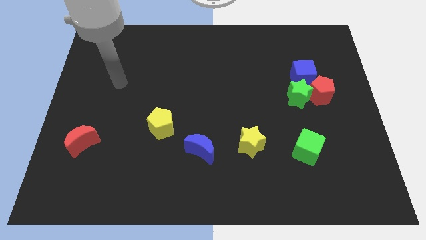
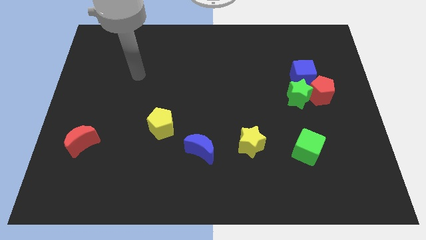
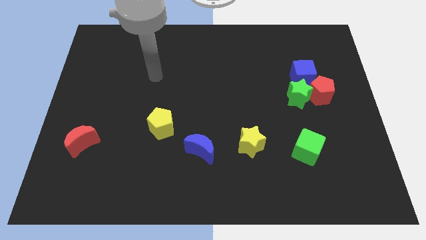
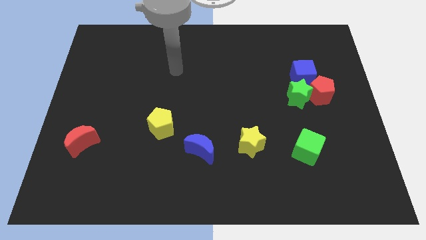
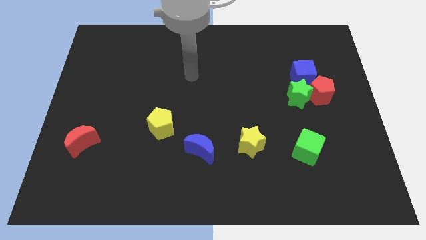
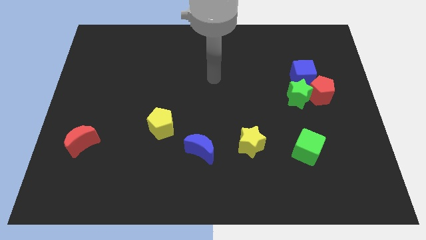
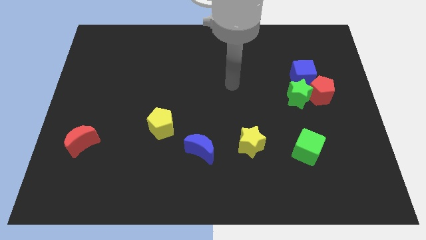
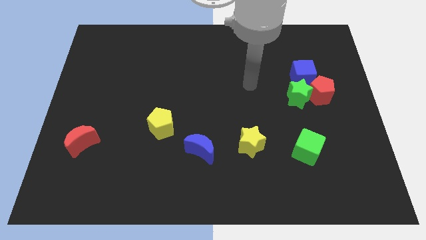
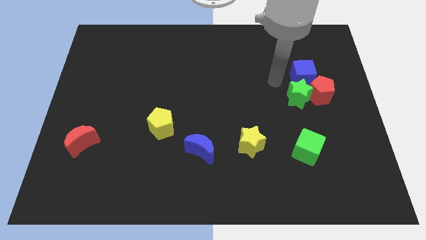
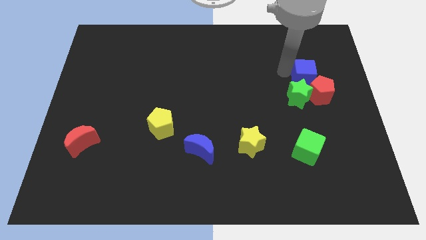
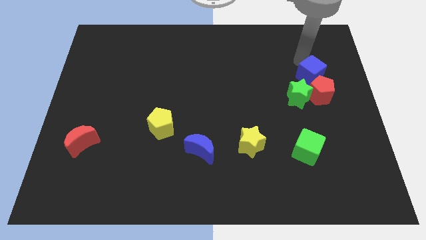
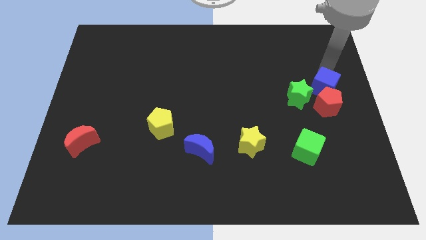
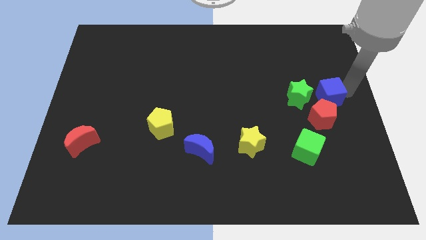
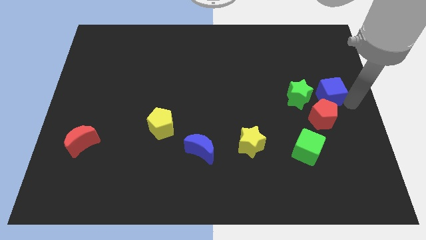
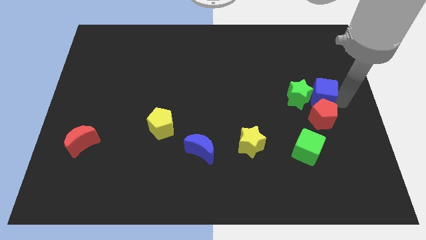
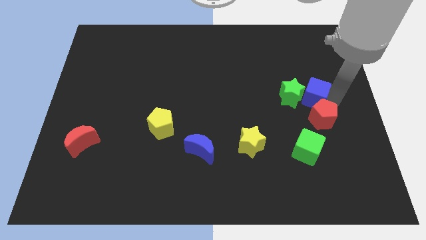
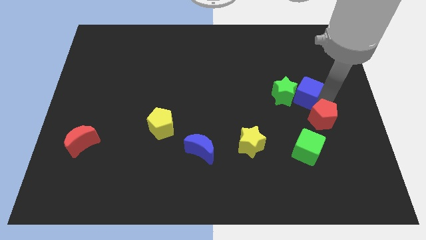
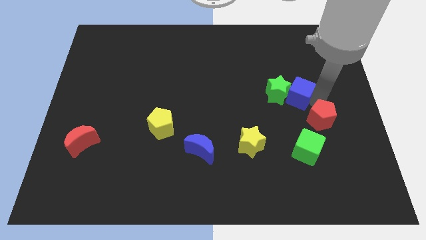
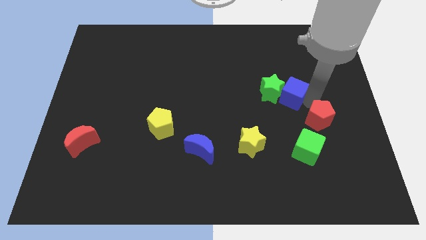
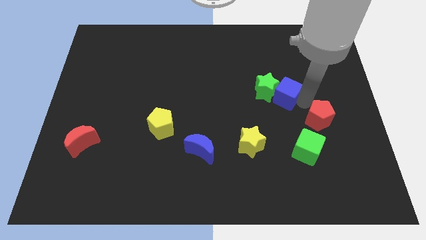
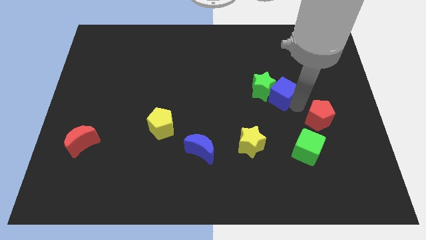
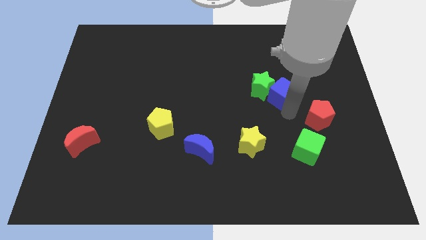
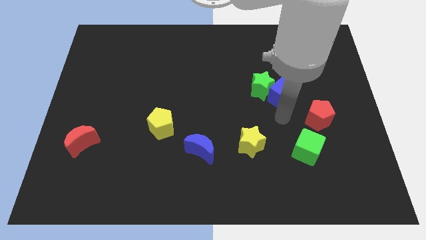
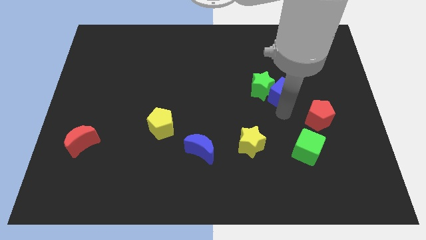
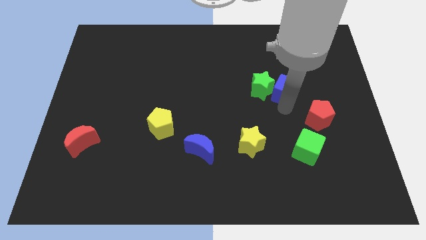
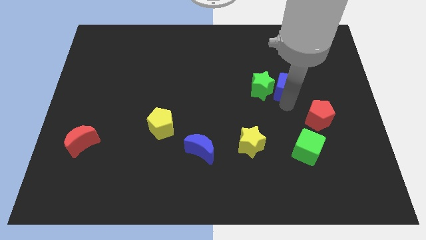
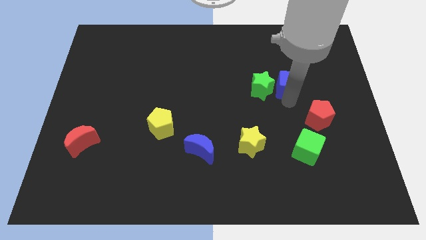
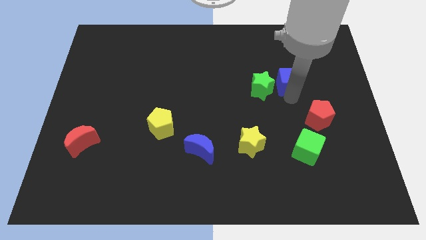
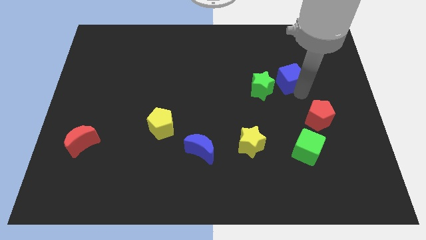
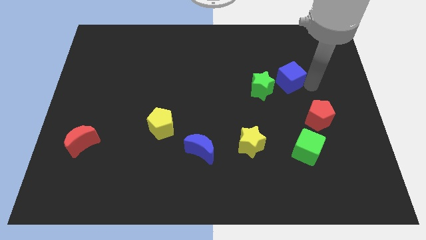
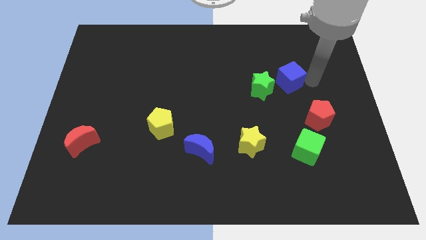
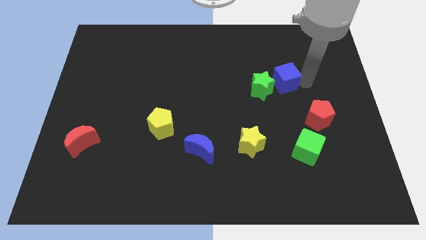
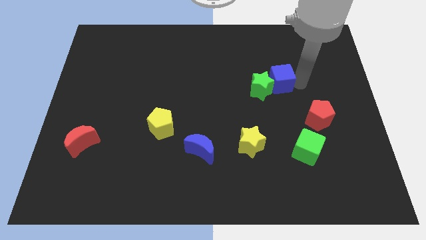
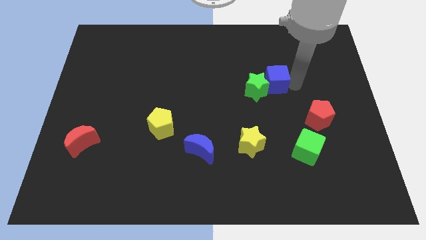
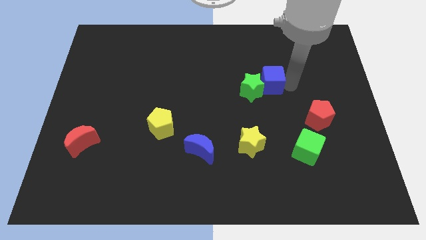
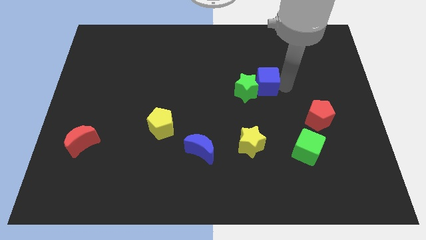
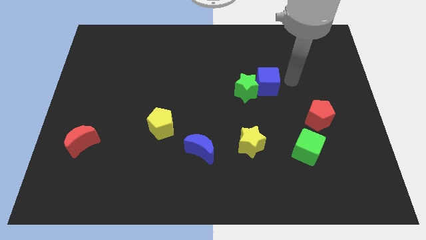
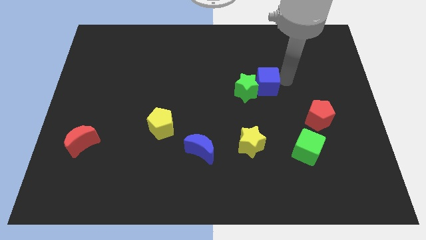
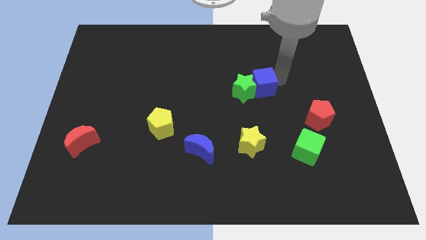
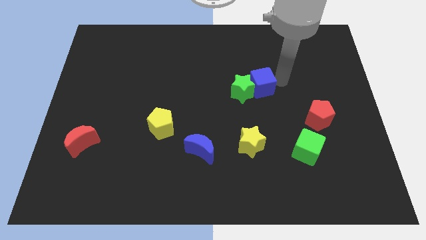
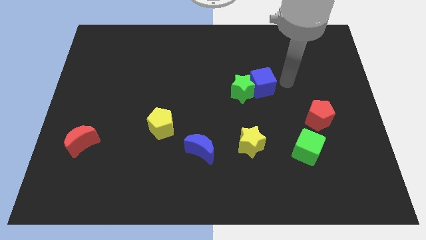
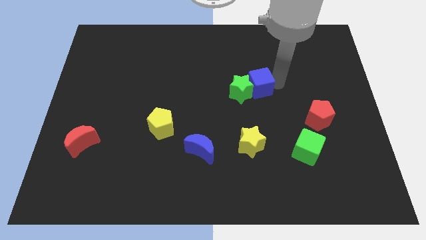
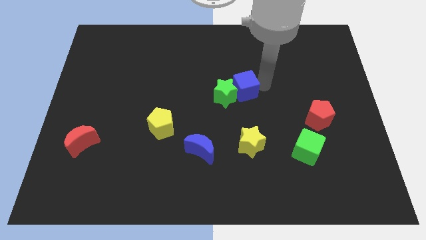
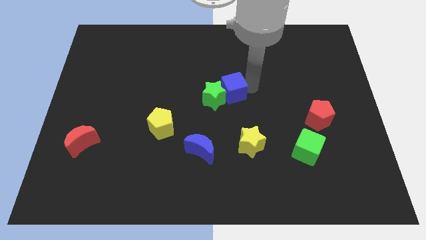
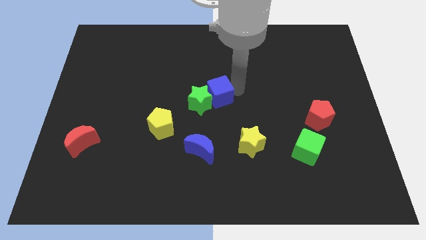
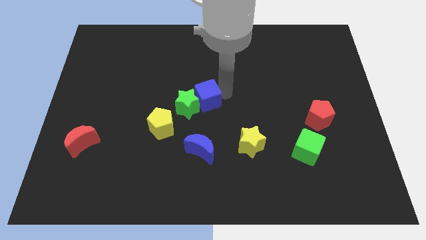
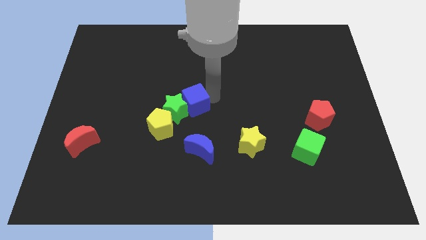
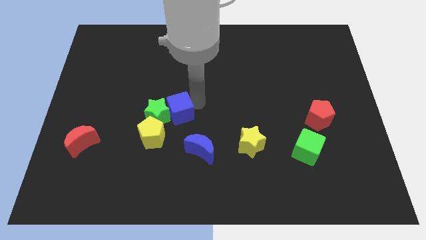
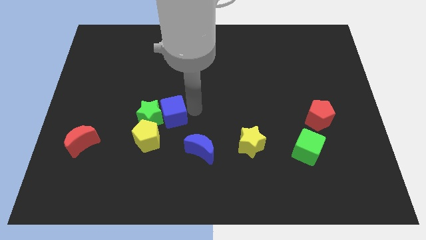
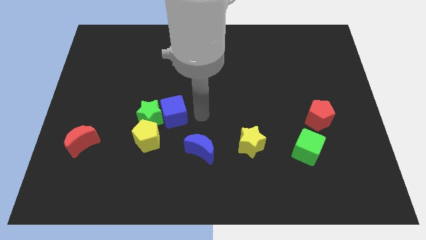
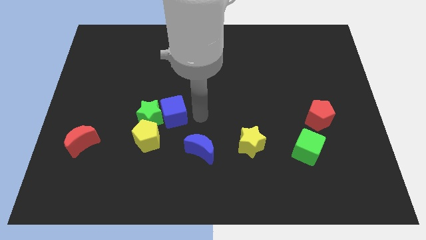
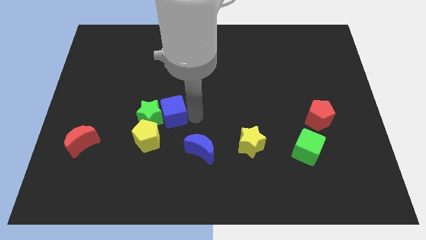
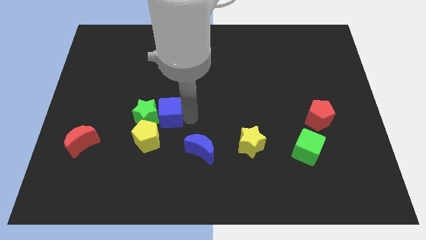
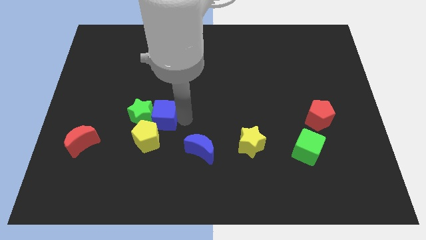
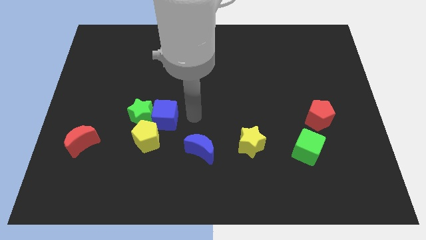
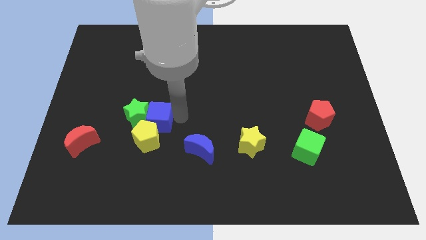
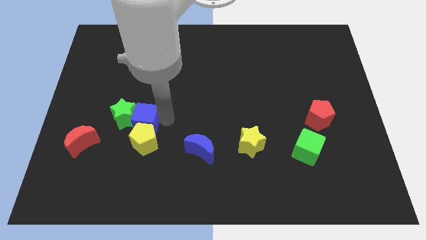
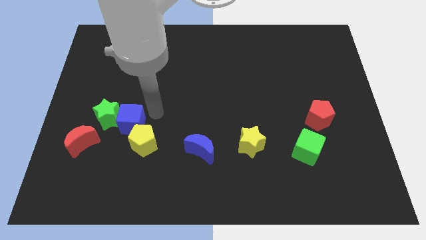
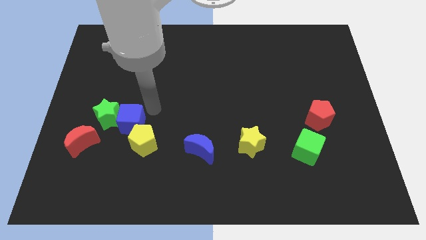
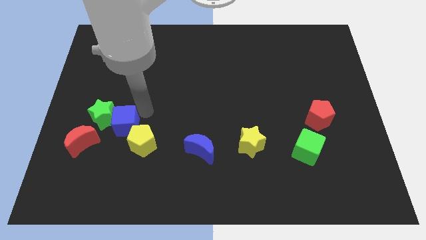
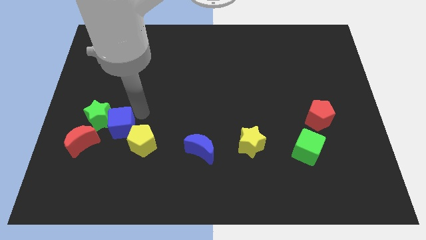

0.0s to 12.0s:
move the blue cube to the left side of the yellow pentagon

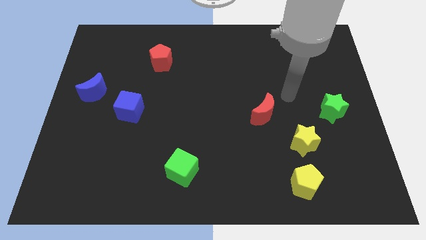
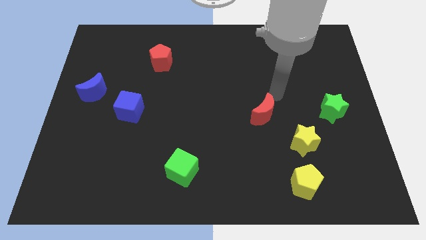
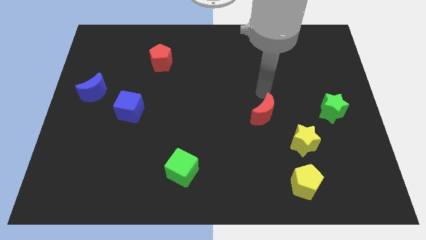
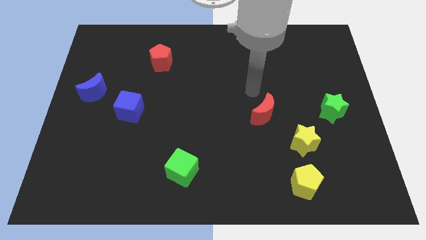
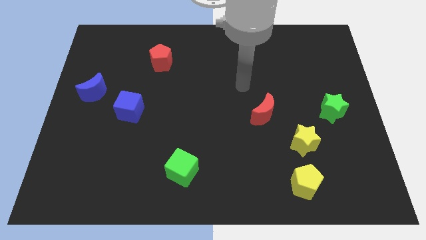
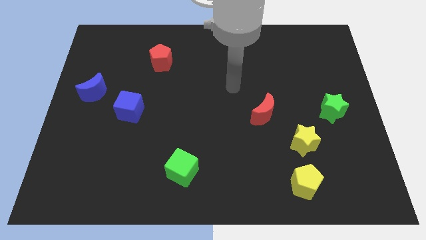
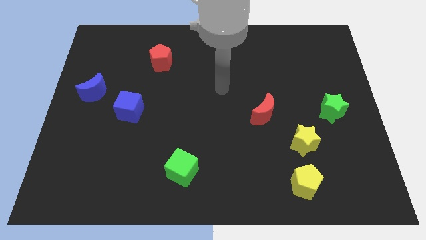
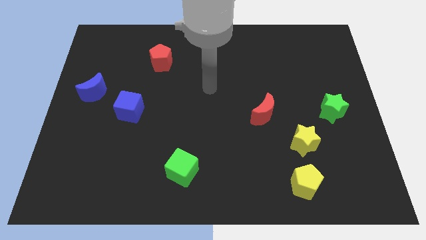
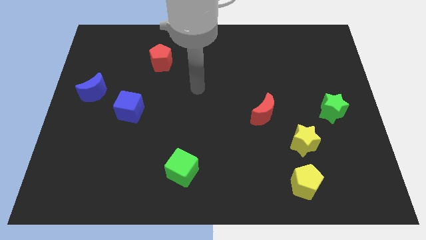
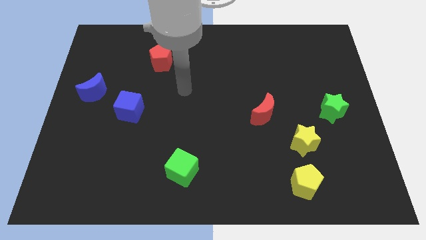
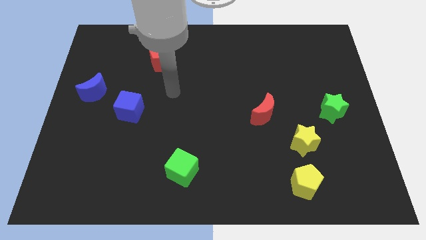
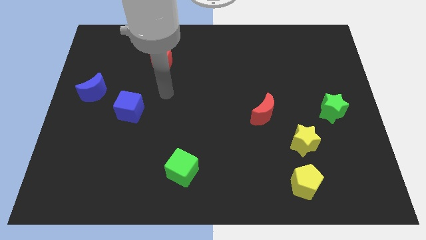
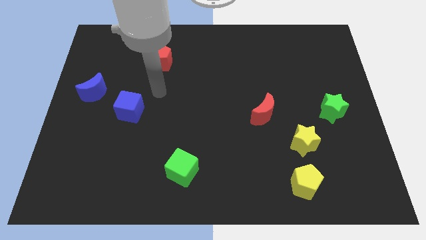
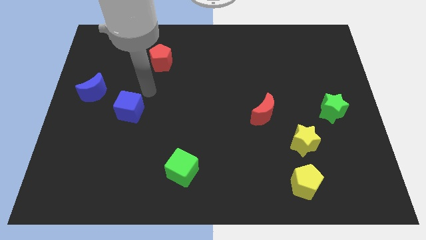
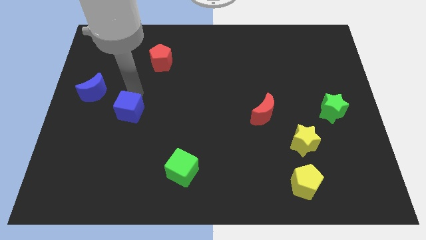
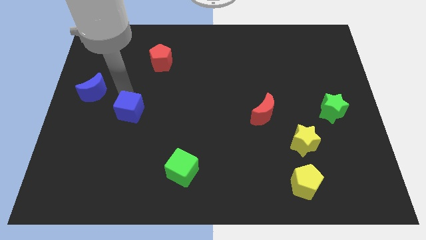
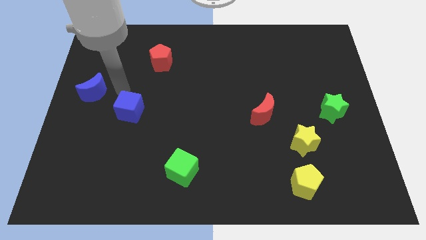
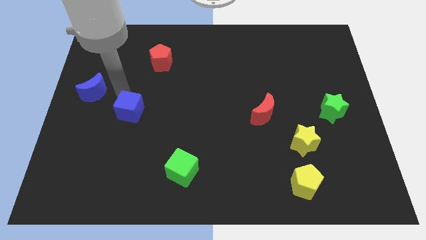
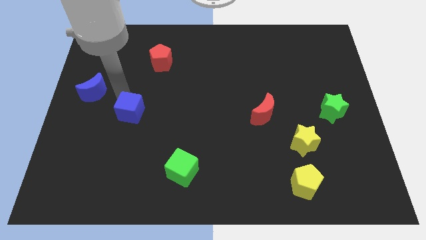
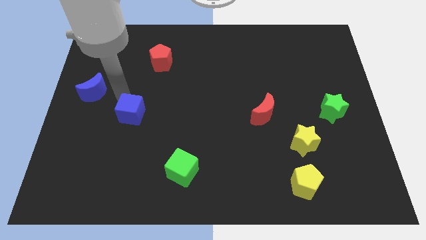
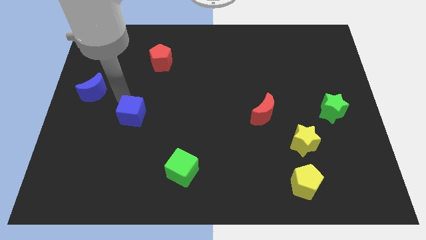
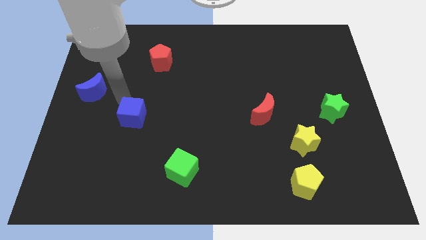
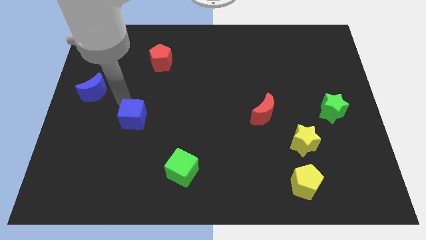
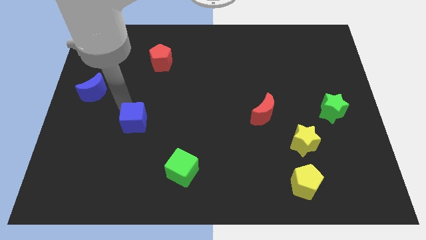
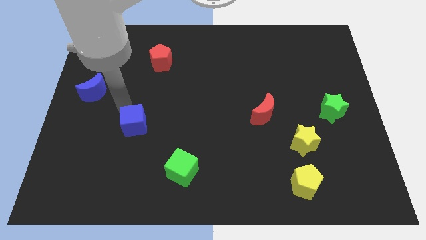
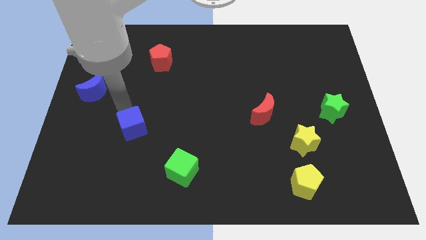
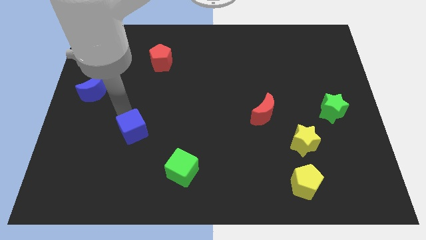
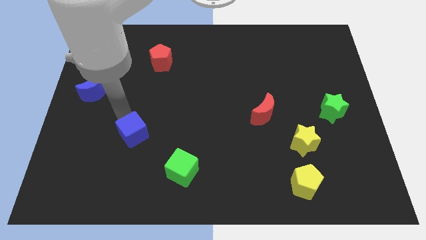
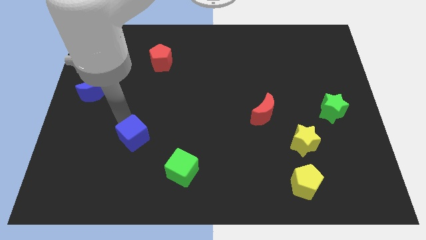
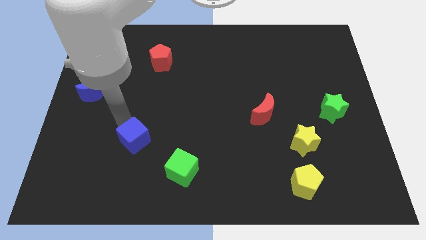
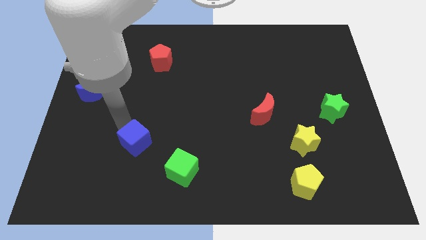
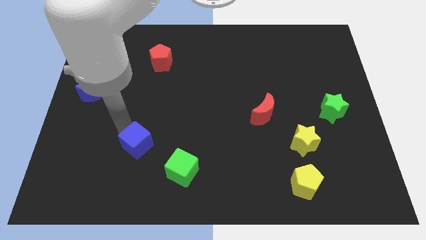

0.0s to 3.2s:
move the blue cube to the top left of the green cube
